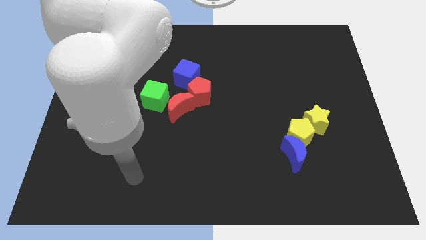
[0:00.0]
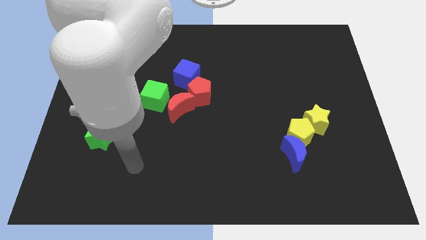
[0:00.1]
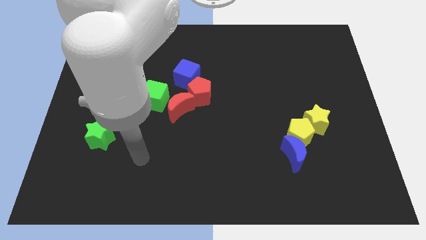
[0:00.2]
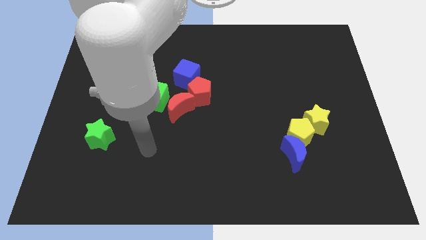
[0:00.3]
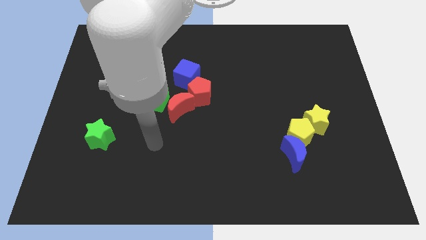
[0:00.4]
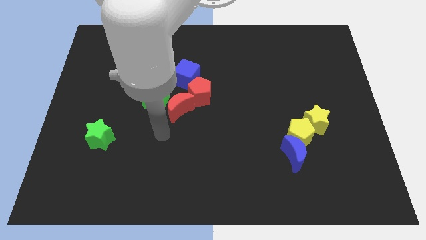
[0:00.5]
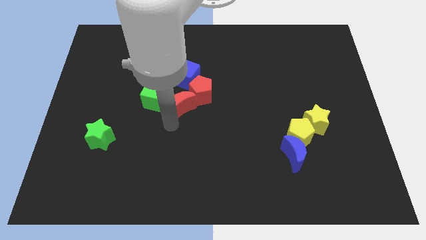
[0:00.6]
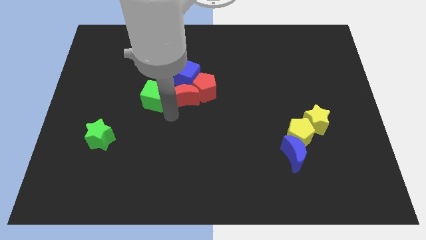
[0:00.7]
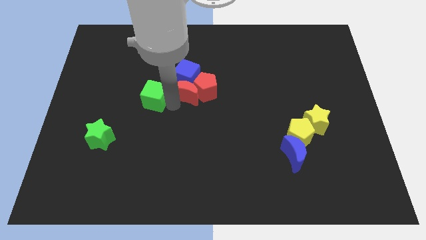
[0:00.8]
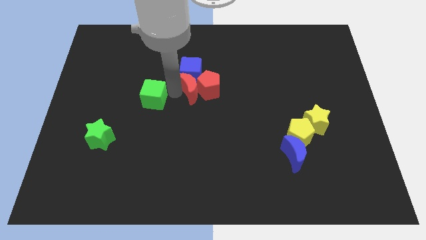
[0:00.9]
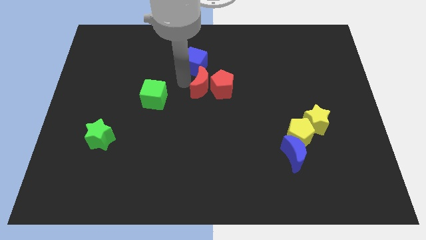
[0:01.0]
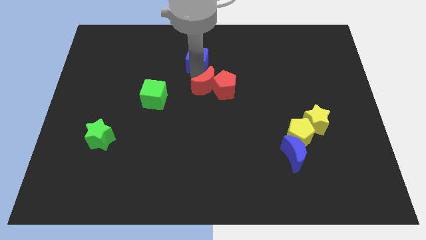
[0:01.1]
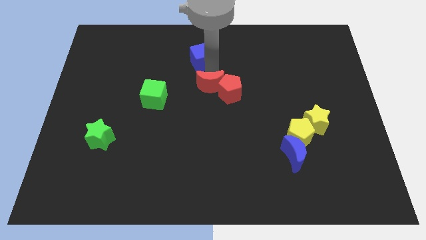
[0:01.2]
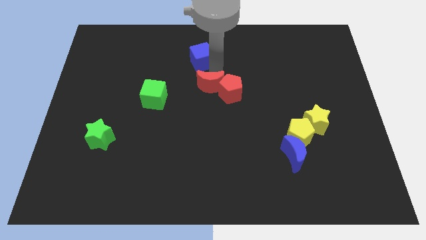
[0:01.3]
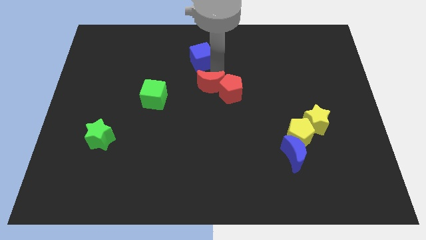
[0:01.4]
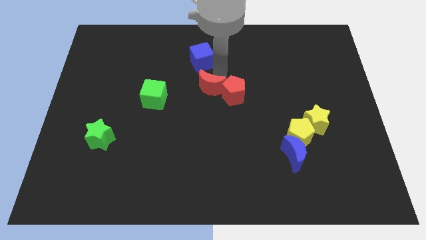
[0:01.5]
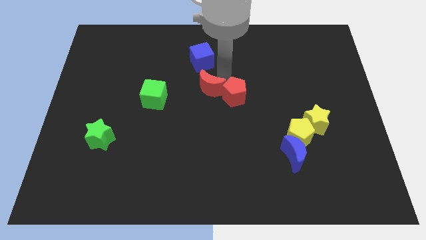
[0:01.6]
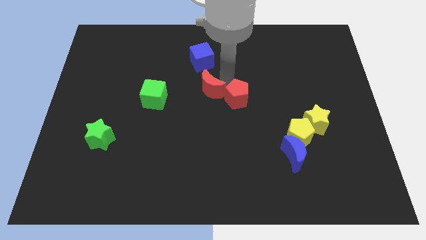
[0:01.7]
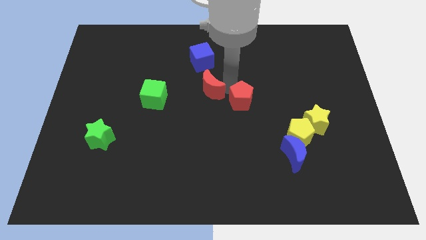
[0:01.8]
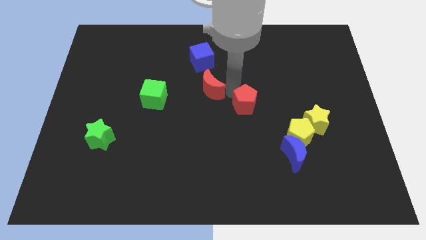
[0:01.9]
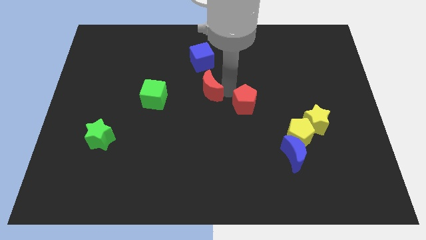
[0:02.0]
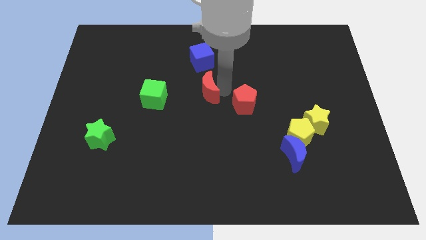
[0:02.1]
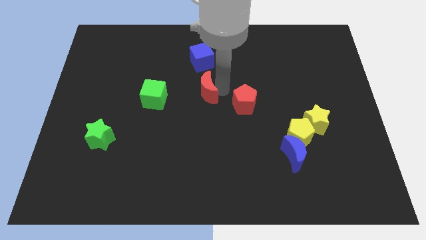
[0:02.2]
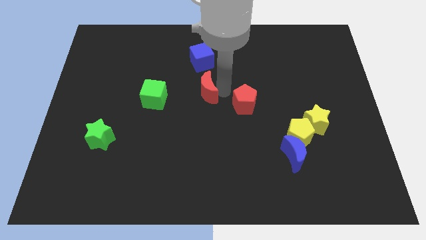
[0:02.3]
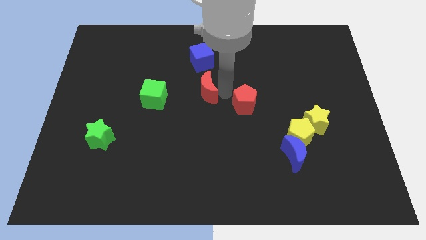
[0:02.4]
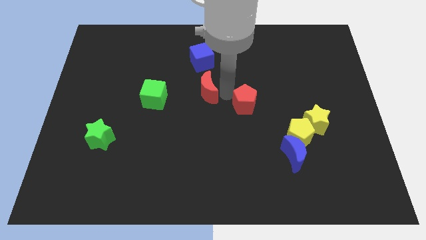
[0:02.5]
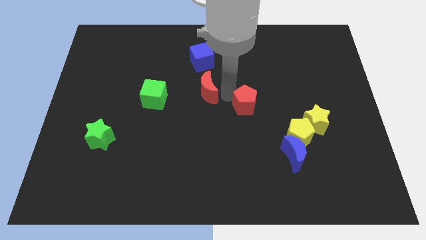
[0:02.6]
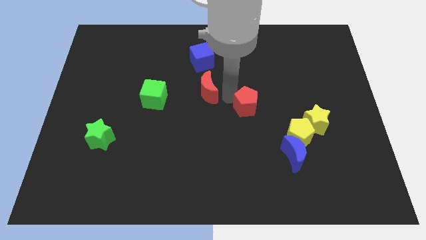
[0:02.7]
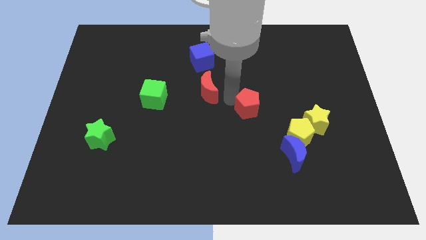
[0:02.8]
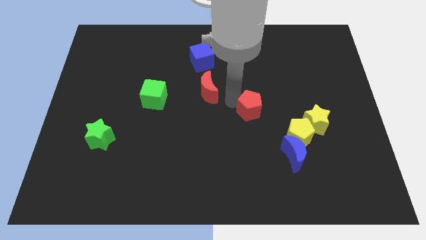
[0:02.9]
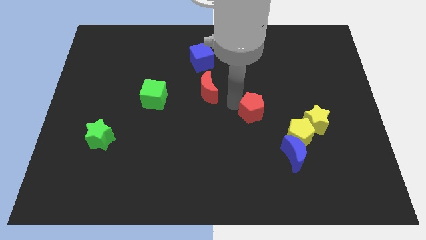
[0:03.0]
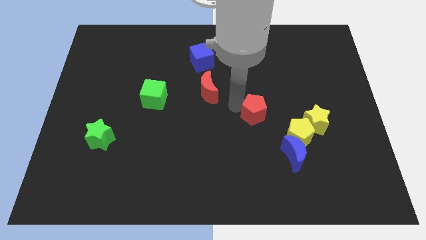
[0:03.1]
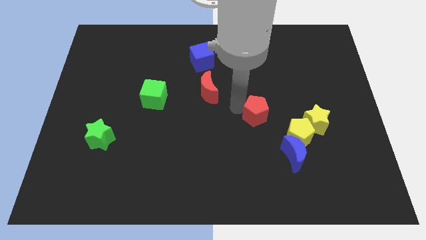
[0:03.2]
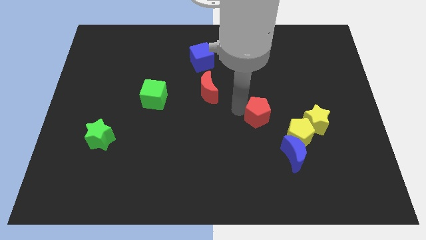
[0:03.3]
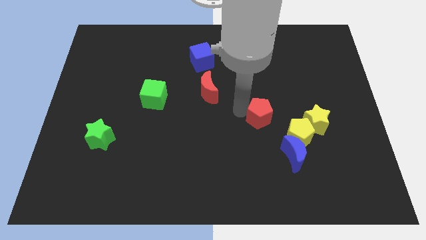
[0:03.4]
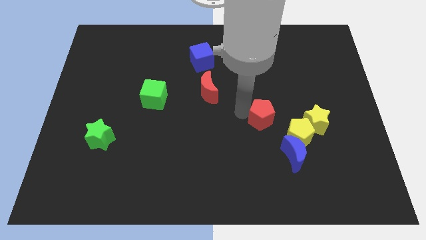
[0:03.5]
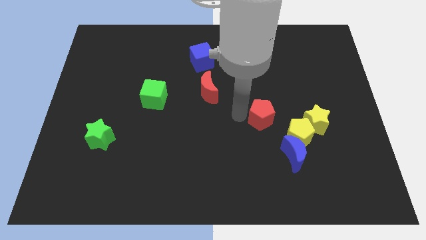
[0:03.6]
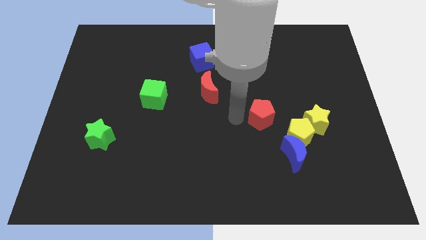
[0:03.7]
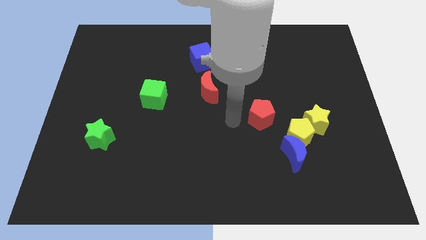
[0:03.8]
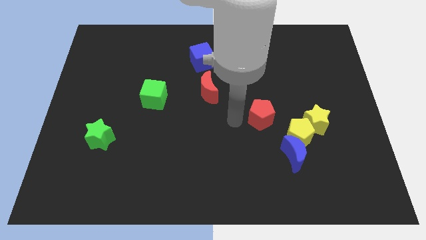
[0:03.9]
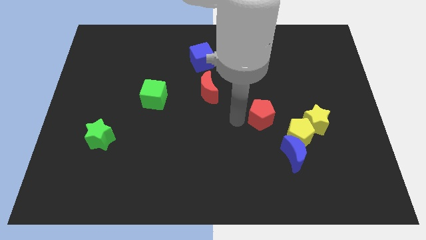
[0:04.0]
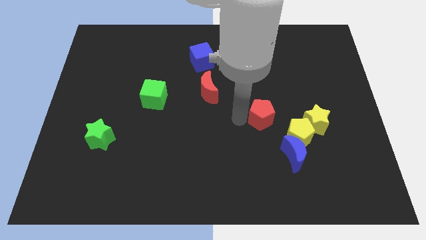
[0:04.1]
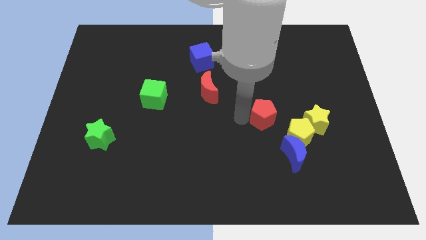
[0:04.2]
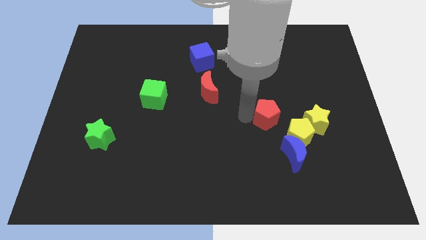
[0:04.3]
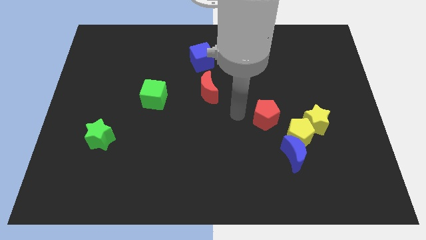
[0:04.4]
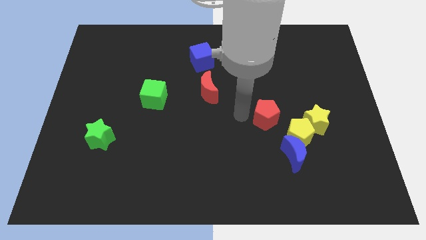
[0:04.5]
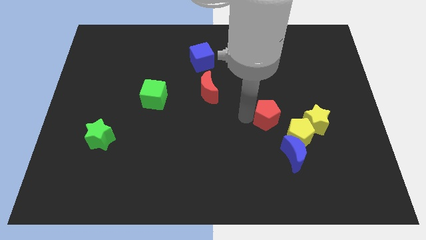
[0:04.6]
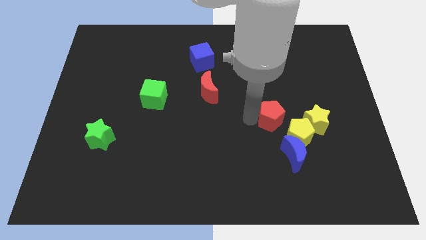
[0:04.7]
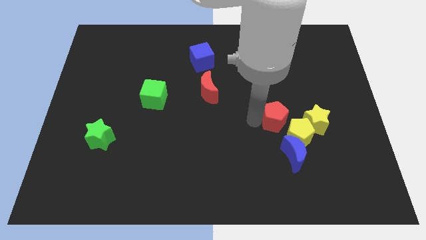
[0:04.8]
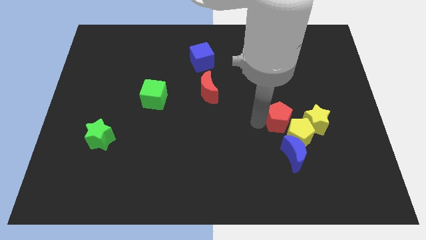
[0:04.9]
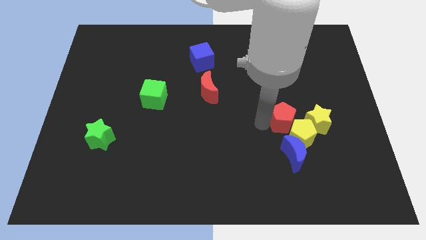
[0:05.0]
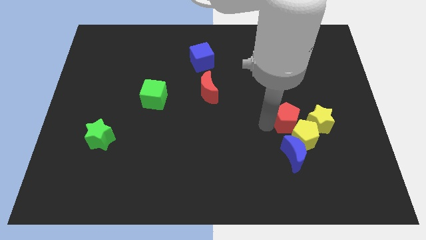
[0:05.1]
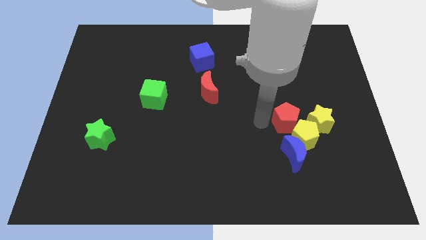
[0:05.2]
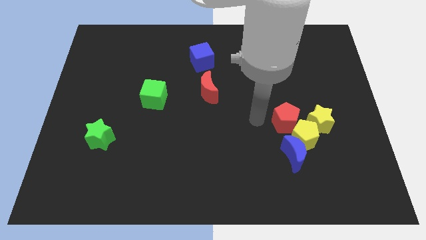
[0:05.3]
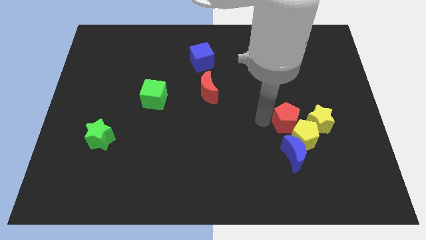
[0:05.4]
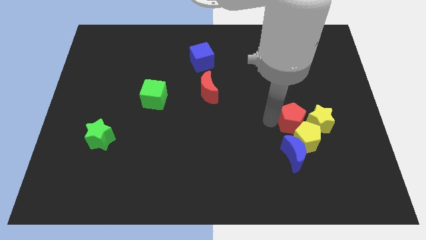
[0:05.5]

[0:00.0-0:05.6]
move the red pentagon next to the yellow star

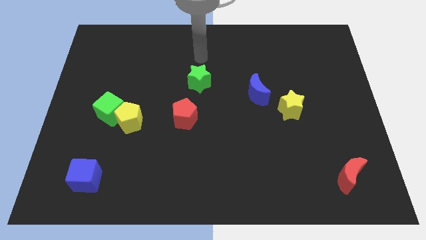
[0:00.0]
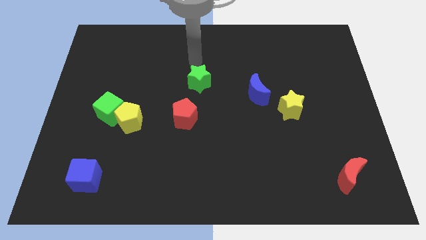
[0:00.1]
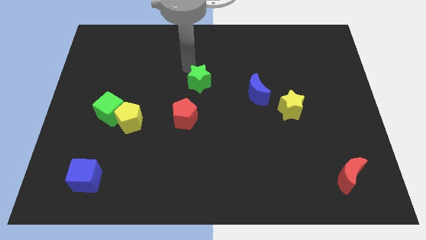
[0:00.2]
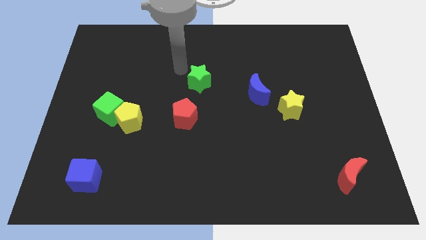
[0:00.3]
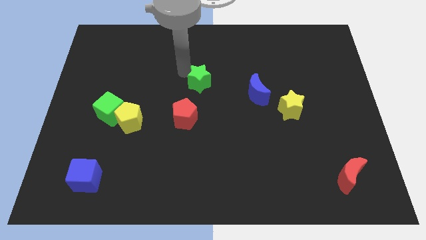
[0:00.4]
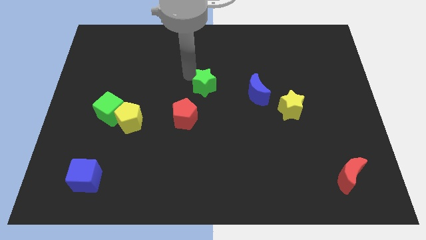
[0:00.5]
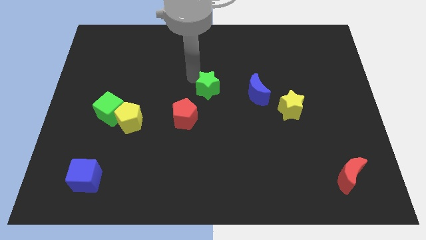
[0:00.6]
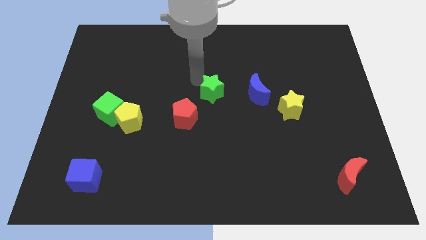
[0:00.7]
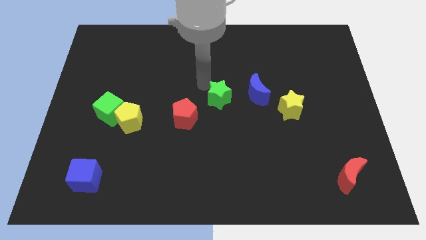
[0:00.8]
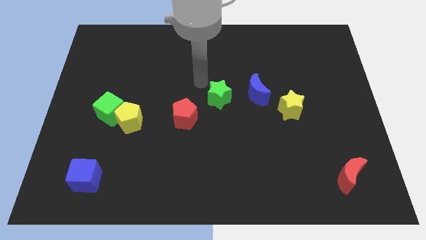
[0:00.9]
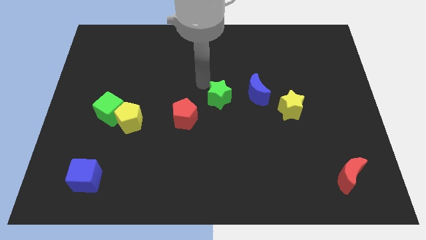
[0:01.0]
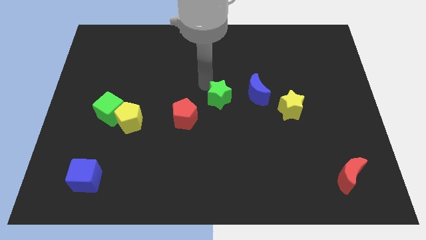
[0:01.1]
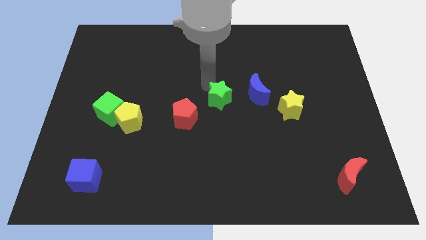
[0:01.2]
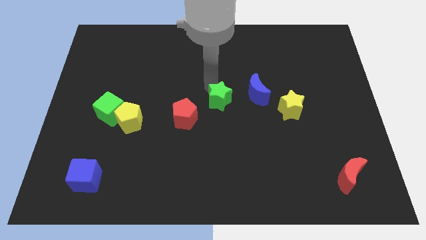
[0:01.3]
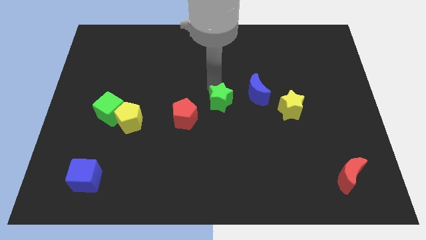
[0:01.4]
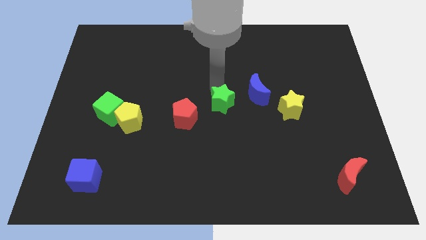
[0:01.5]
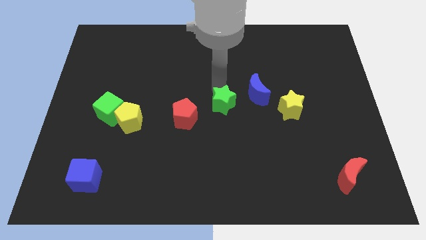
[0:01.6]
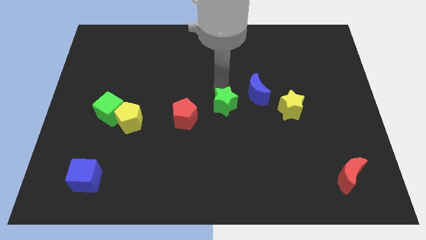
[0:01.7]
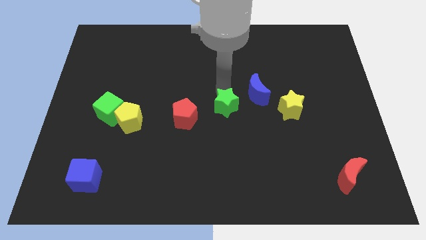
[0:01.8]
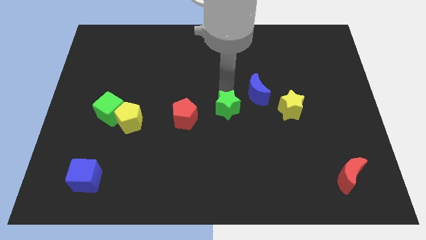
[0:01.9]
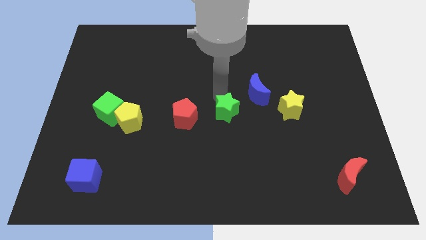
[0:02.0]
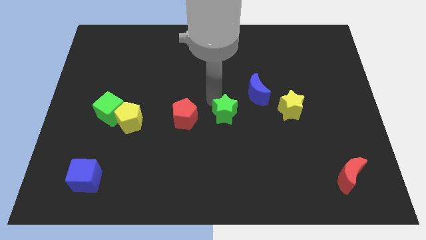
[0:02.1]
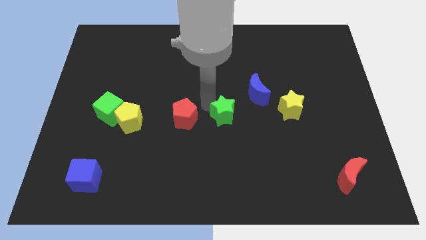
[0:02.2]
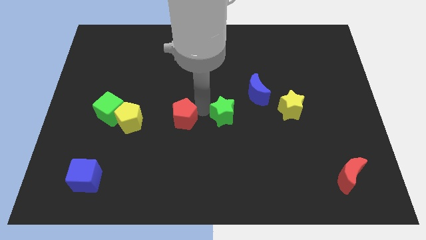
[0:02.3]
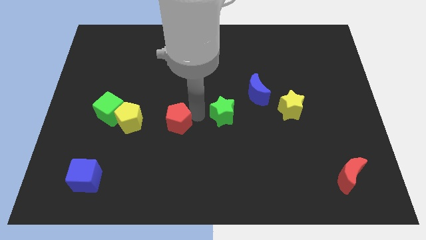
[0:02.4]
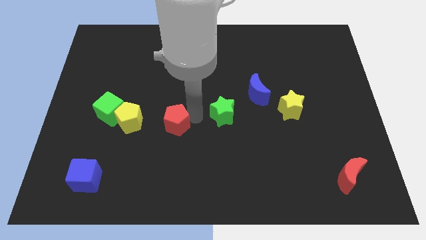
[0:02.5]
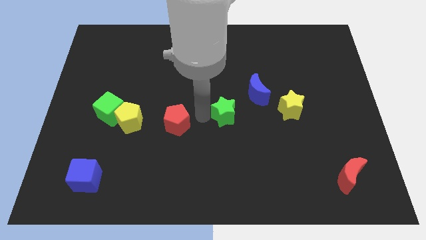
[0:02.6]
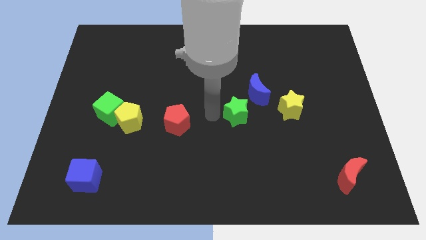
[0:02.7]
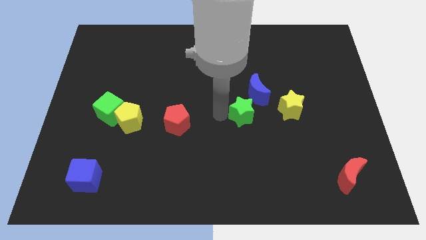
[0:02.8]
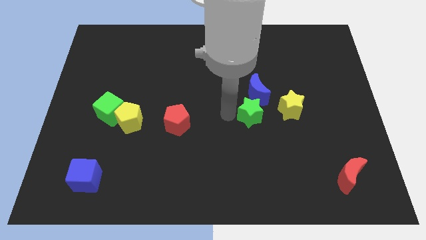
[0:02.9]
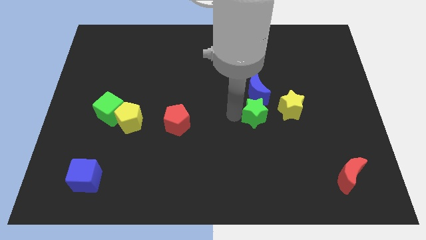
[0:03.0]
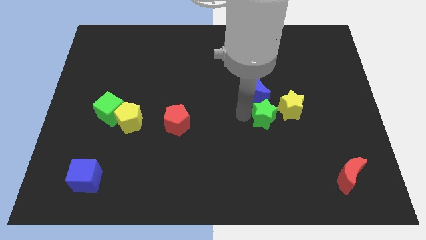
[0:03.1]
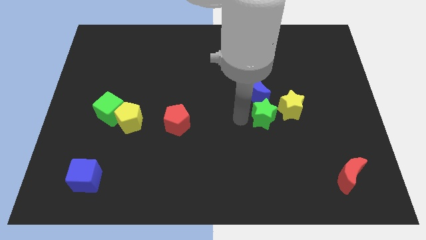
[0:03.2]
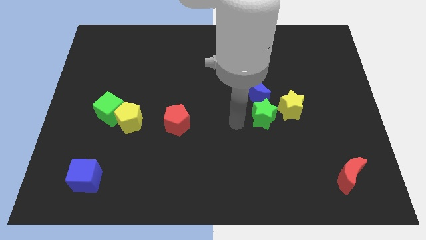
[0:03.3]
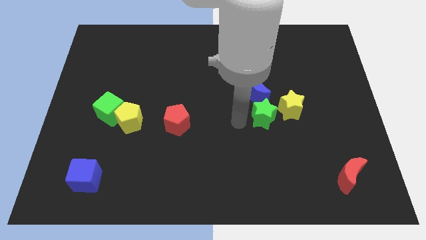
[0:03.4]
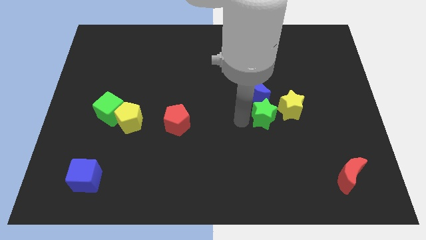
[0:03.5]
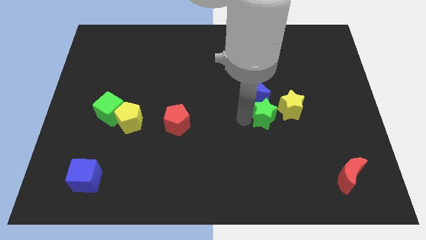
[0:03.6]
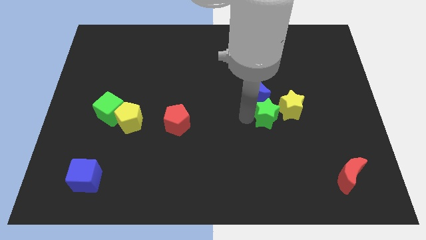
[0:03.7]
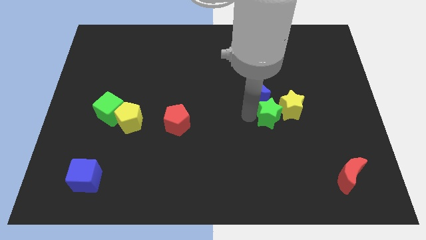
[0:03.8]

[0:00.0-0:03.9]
put the green star close to the yellow star
